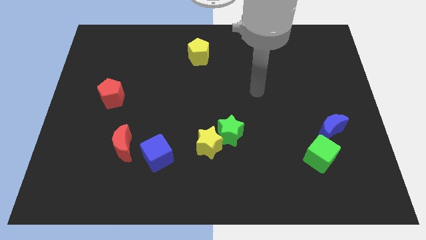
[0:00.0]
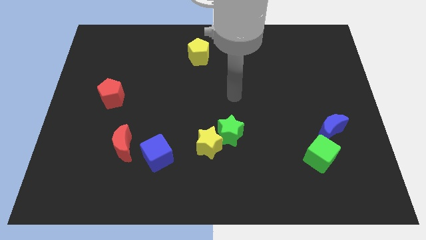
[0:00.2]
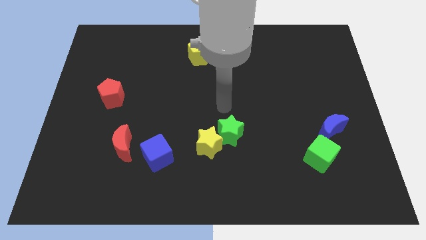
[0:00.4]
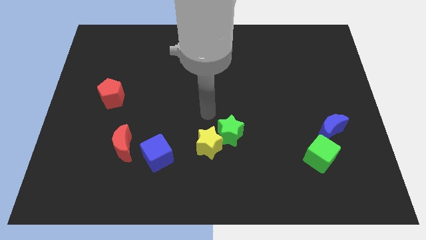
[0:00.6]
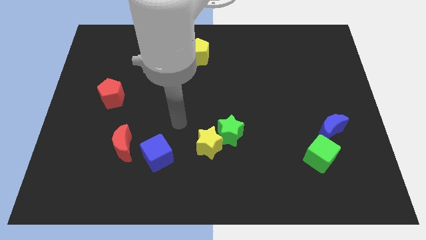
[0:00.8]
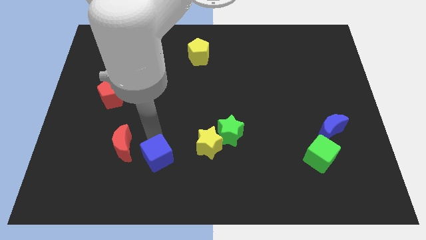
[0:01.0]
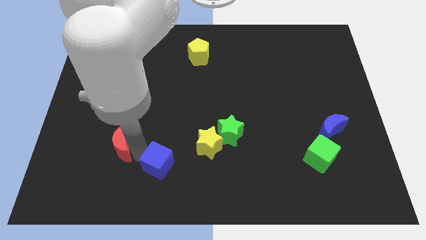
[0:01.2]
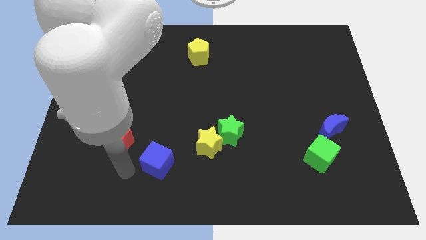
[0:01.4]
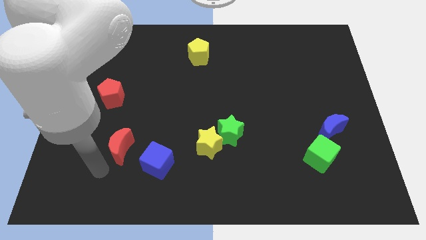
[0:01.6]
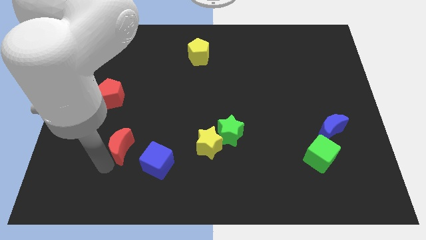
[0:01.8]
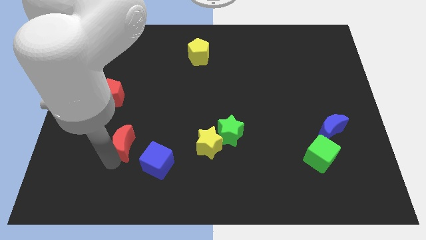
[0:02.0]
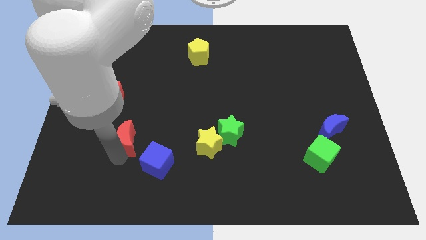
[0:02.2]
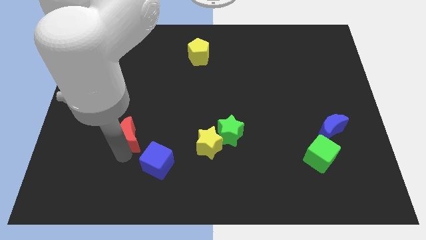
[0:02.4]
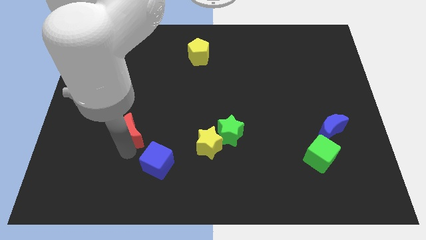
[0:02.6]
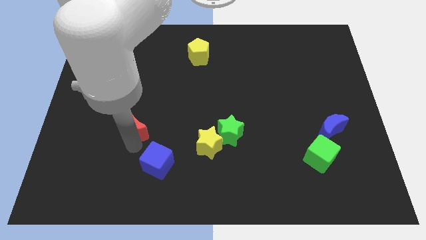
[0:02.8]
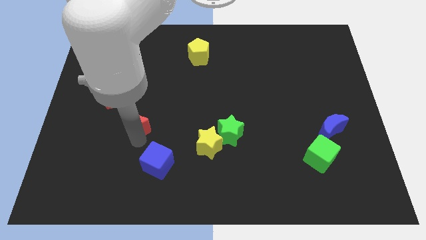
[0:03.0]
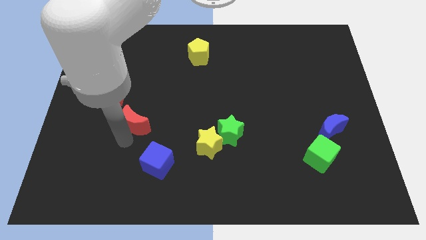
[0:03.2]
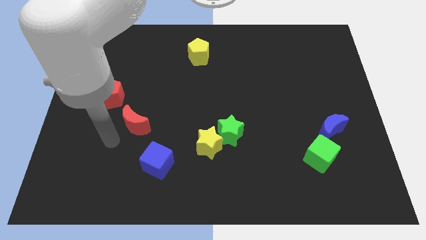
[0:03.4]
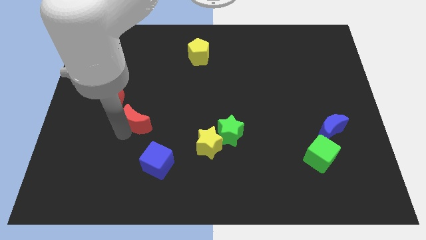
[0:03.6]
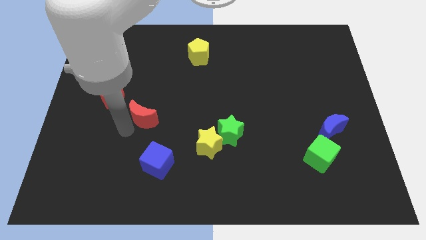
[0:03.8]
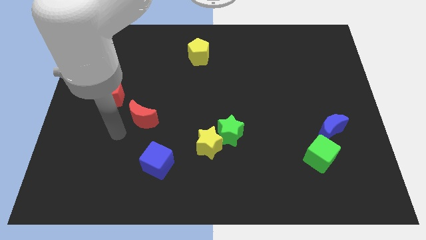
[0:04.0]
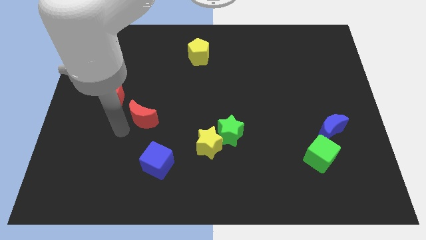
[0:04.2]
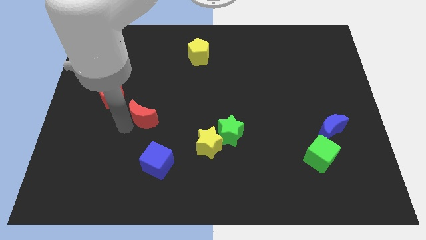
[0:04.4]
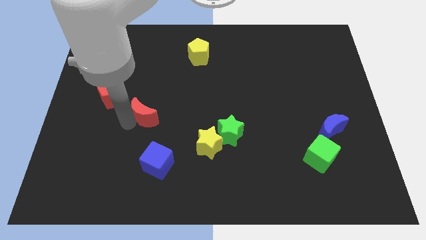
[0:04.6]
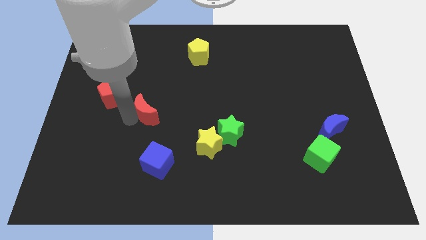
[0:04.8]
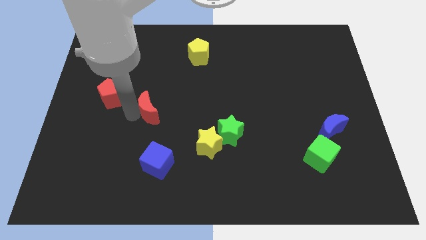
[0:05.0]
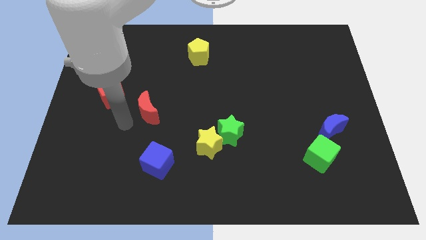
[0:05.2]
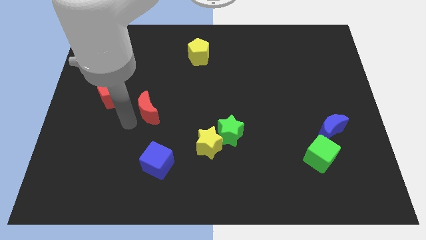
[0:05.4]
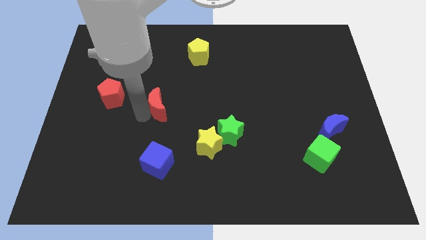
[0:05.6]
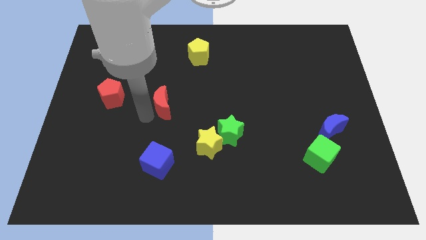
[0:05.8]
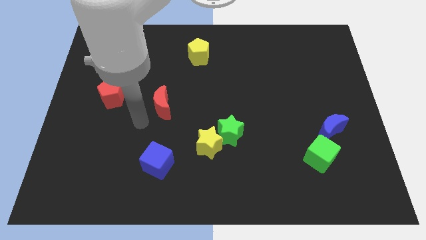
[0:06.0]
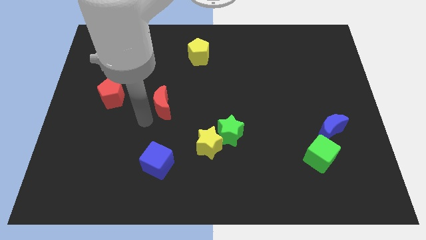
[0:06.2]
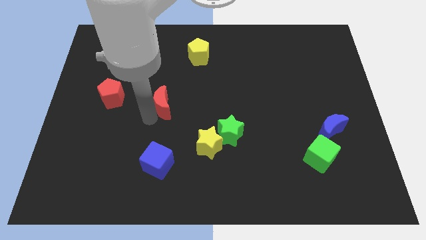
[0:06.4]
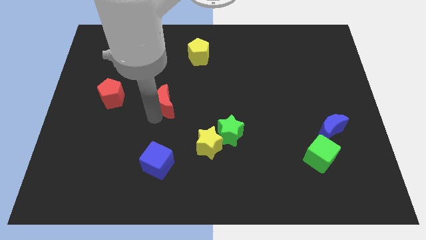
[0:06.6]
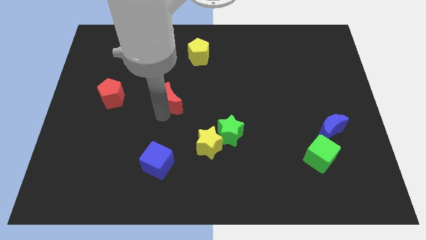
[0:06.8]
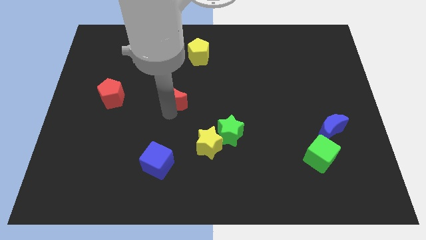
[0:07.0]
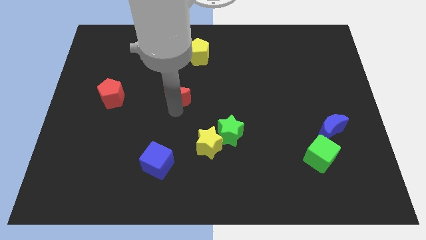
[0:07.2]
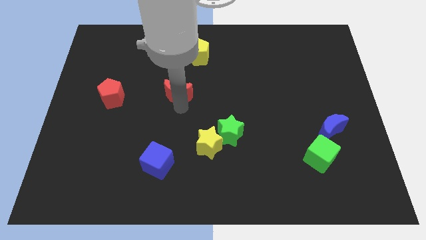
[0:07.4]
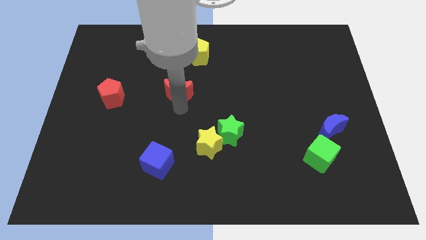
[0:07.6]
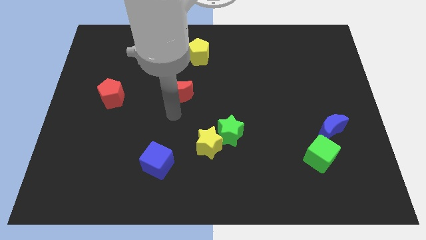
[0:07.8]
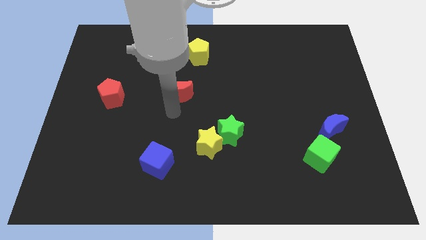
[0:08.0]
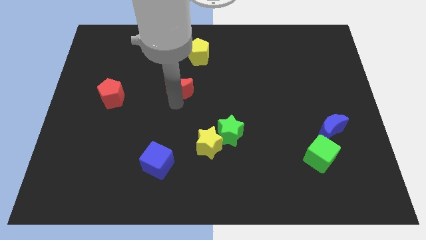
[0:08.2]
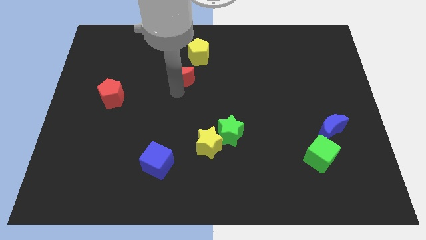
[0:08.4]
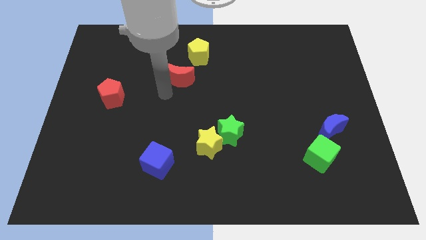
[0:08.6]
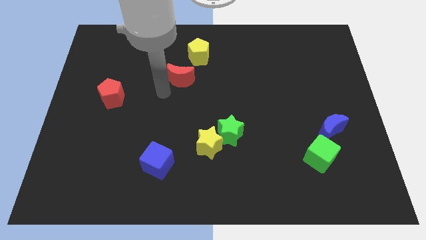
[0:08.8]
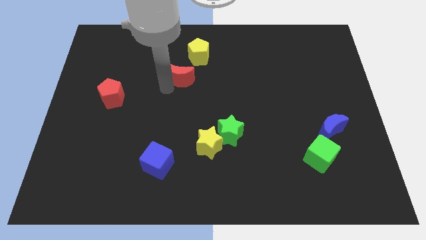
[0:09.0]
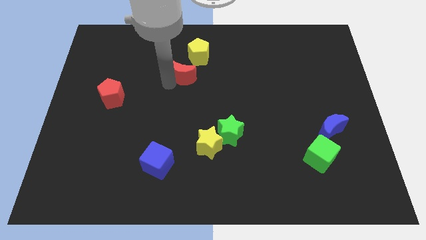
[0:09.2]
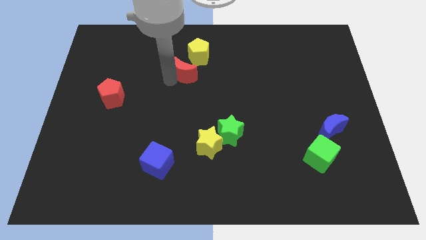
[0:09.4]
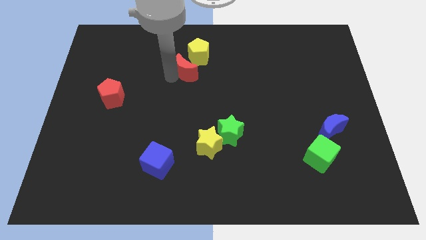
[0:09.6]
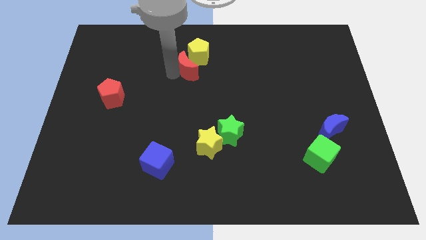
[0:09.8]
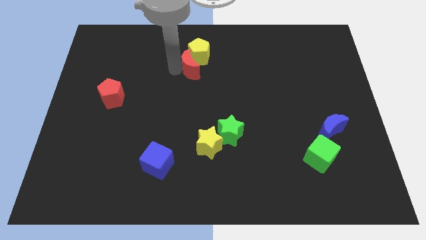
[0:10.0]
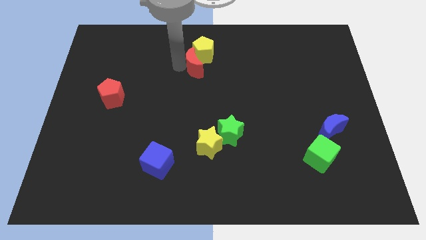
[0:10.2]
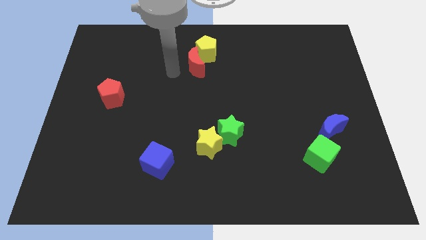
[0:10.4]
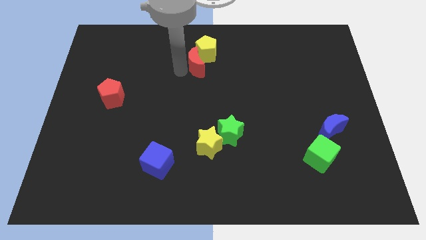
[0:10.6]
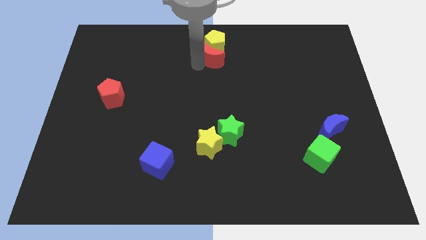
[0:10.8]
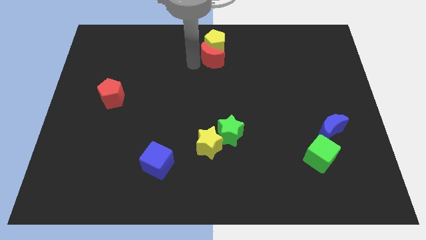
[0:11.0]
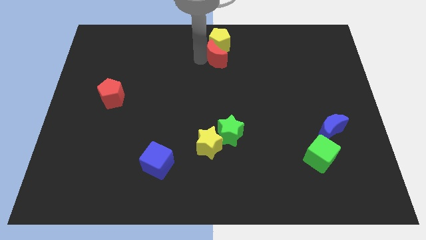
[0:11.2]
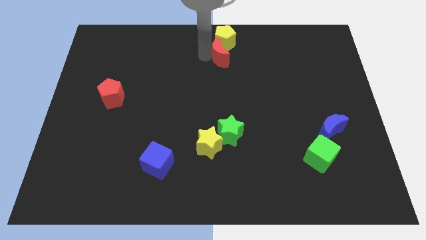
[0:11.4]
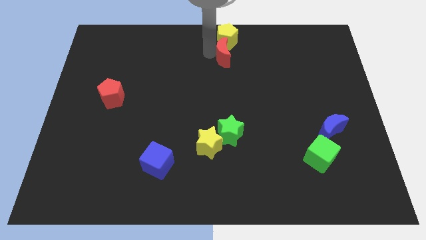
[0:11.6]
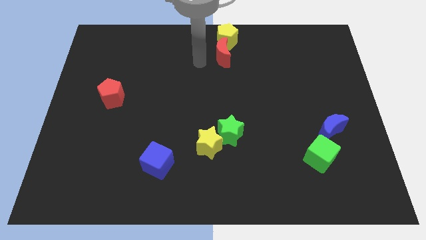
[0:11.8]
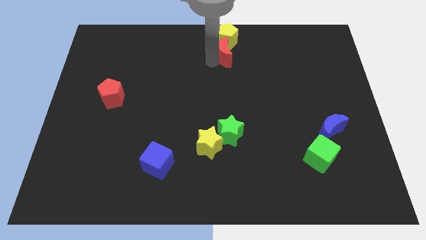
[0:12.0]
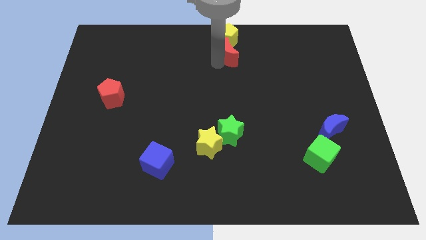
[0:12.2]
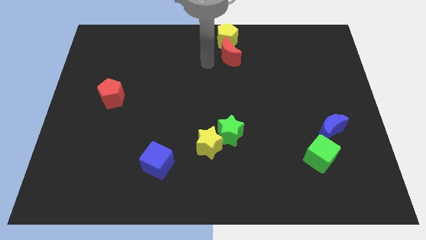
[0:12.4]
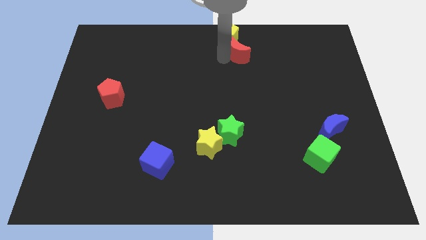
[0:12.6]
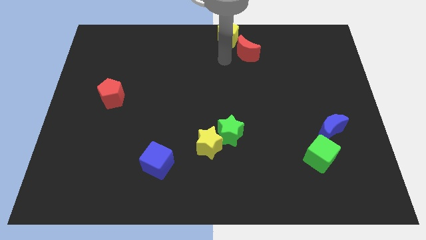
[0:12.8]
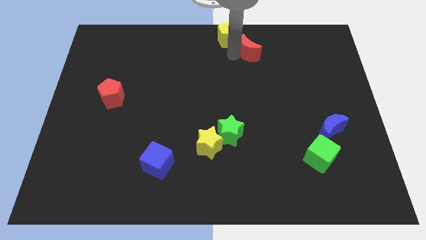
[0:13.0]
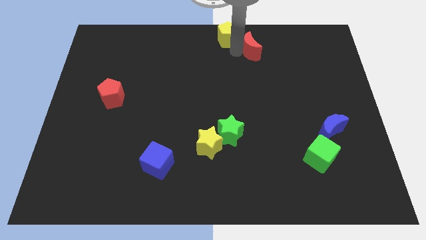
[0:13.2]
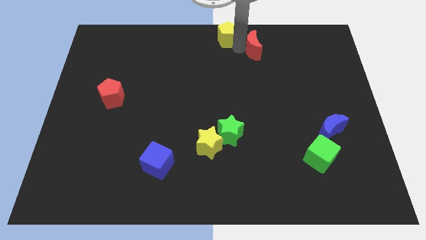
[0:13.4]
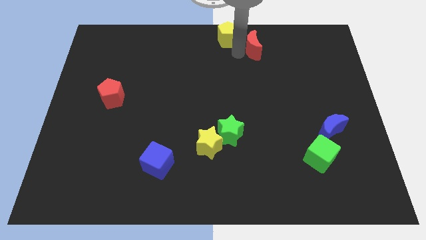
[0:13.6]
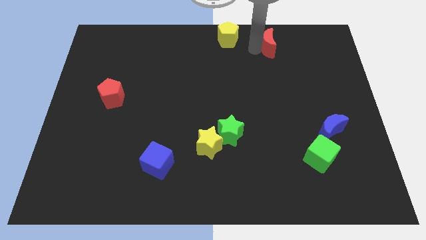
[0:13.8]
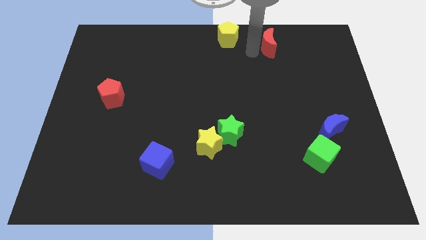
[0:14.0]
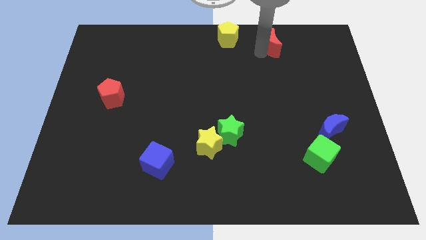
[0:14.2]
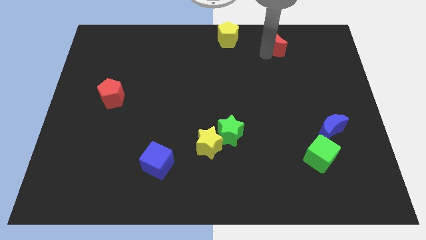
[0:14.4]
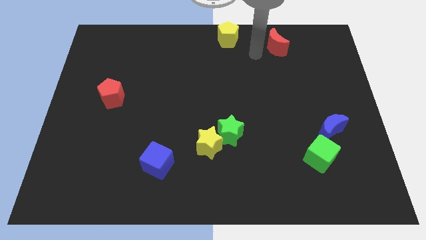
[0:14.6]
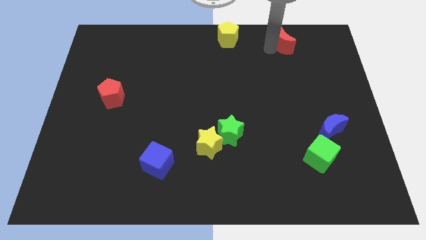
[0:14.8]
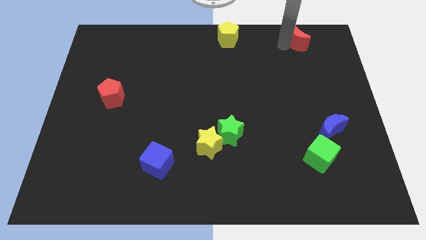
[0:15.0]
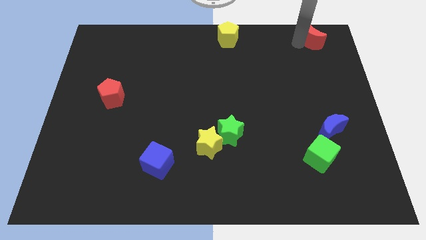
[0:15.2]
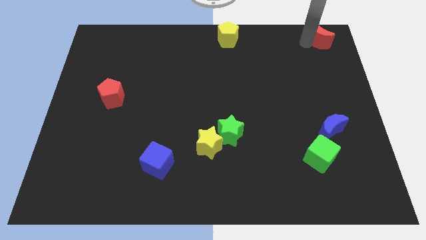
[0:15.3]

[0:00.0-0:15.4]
push the red moon to the top right

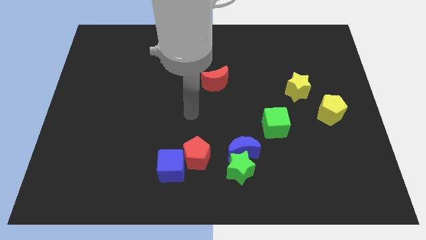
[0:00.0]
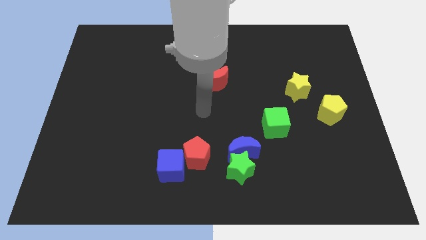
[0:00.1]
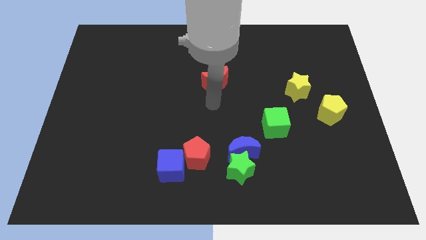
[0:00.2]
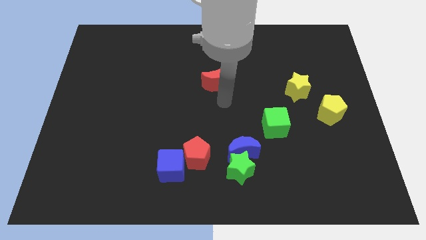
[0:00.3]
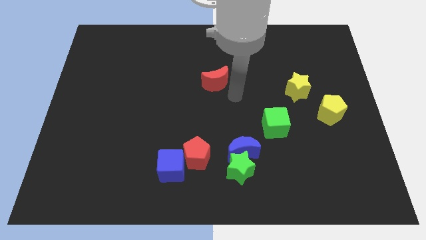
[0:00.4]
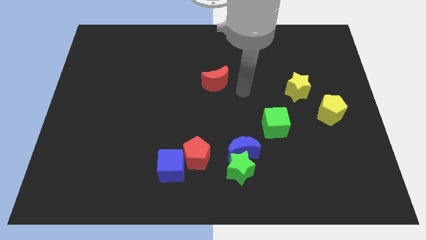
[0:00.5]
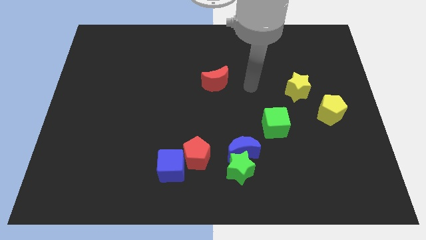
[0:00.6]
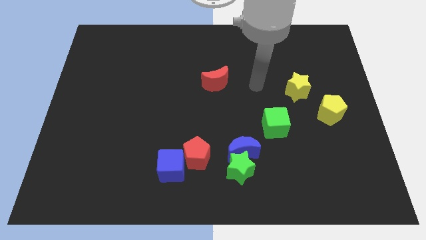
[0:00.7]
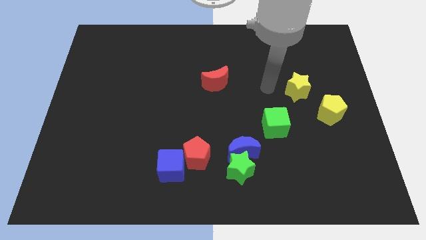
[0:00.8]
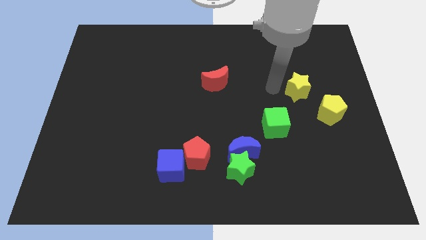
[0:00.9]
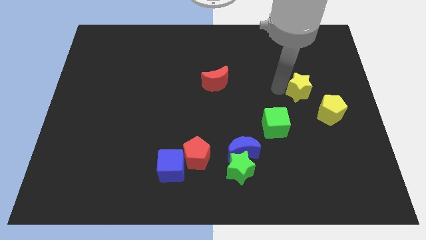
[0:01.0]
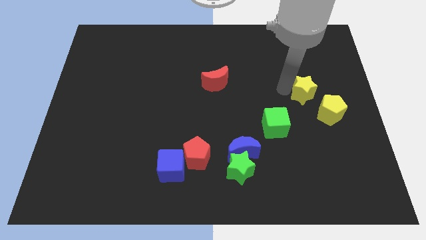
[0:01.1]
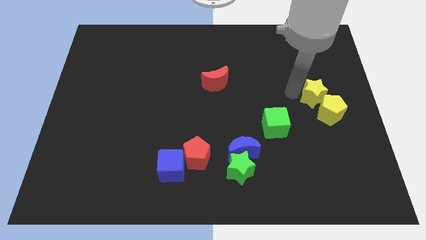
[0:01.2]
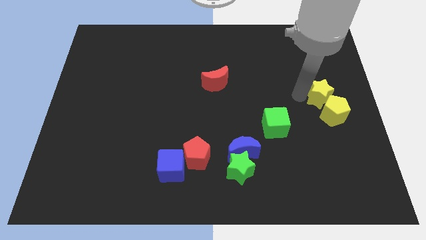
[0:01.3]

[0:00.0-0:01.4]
slide the yellow star to the right side
